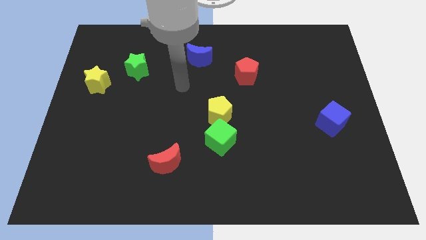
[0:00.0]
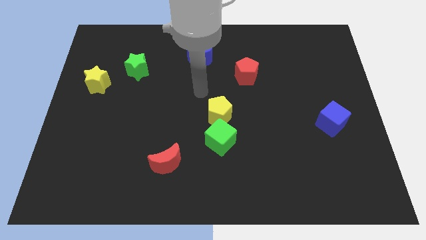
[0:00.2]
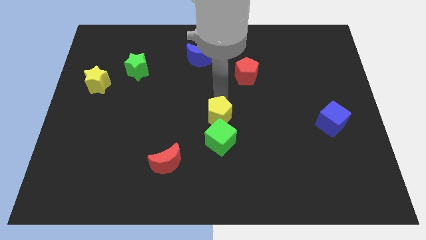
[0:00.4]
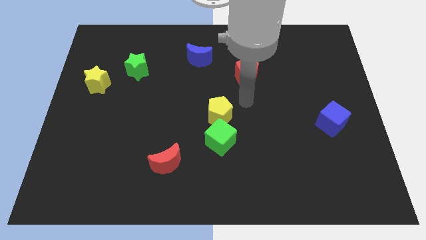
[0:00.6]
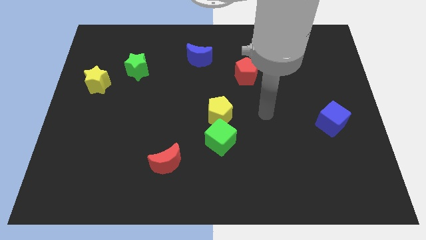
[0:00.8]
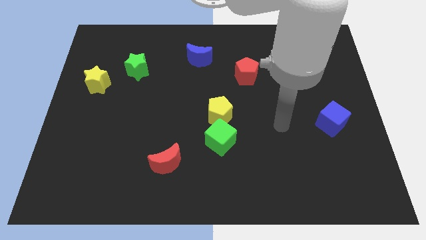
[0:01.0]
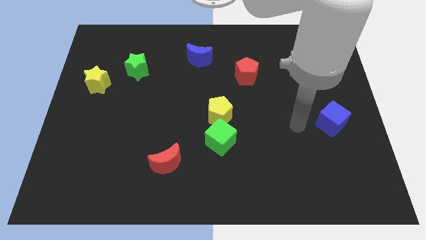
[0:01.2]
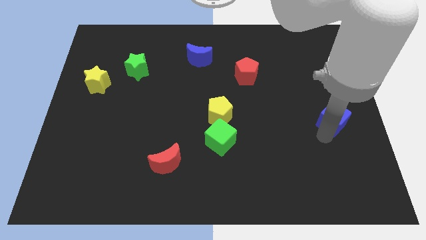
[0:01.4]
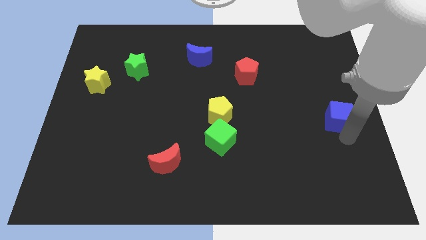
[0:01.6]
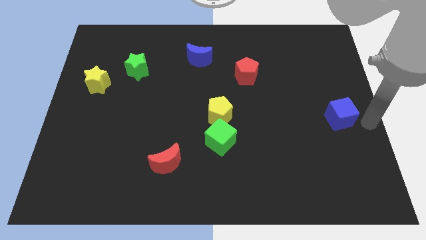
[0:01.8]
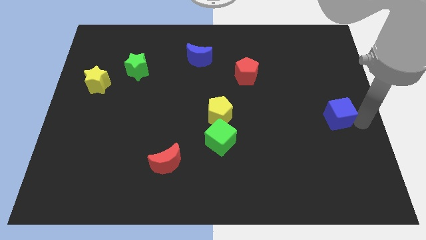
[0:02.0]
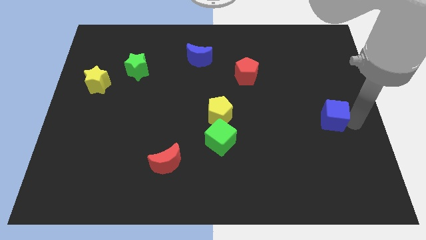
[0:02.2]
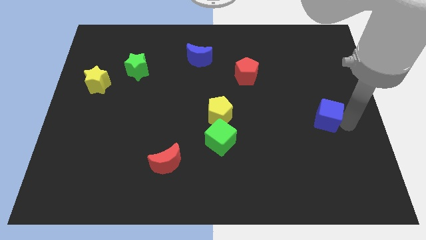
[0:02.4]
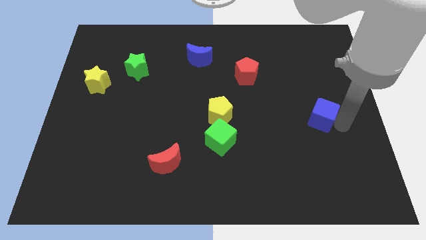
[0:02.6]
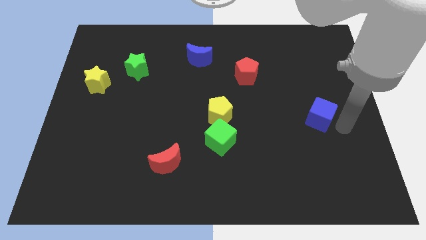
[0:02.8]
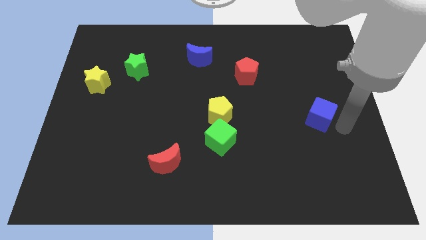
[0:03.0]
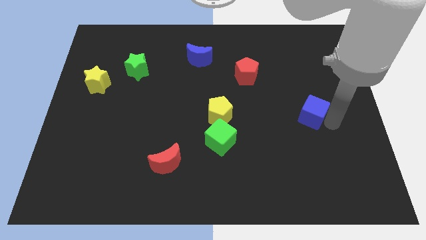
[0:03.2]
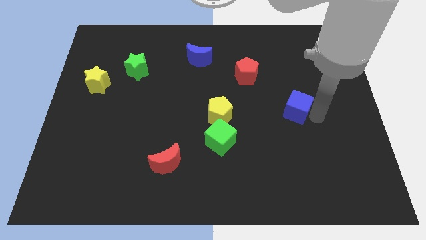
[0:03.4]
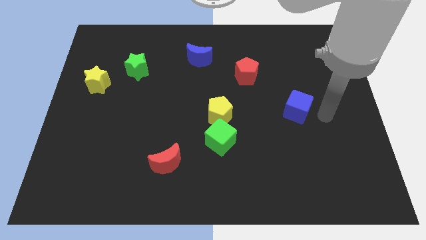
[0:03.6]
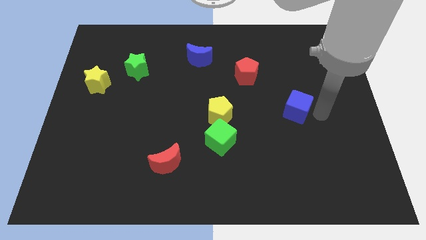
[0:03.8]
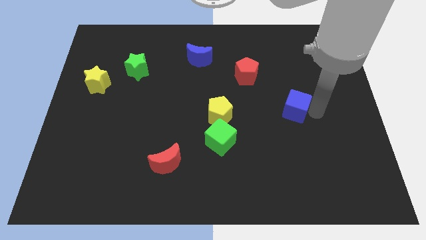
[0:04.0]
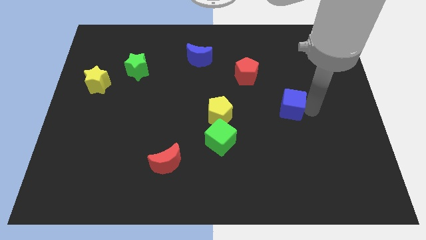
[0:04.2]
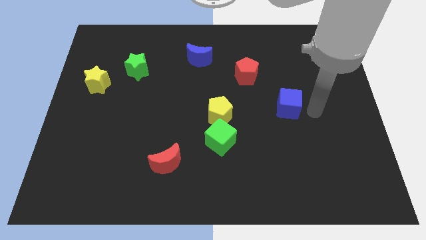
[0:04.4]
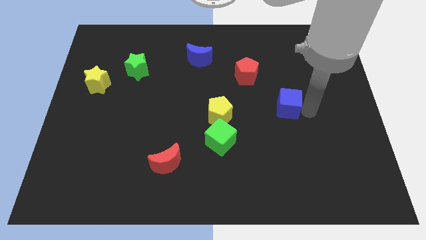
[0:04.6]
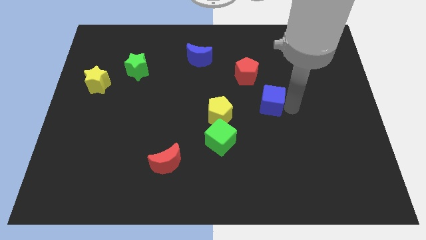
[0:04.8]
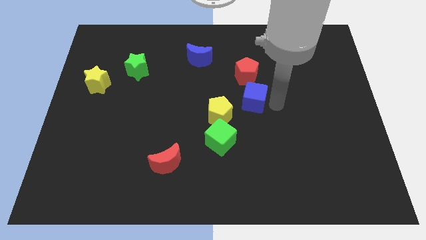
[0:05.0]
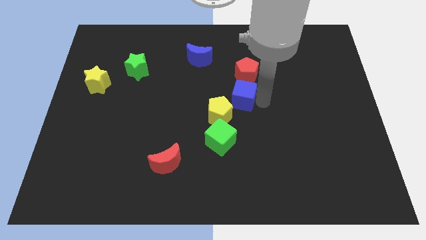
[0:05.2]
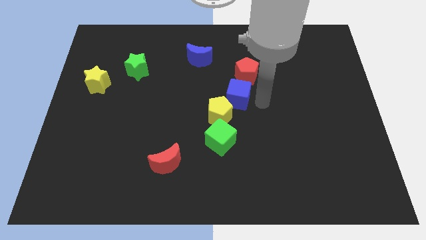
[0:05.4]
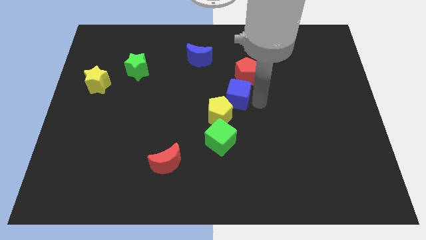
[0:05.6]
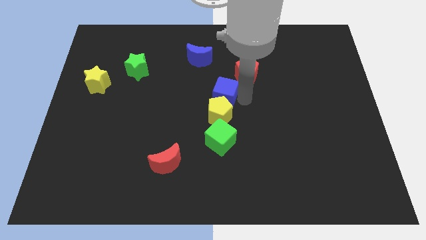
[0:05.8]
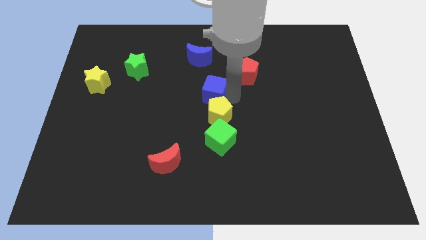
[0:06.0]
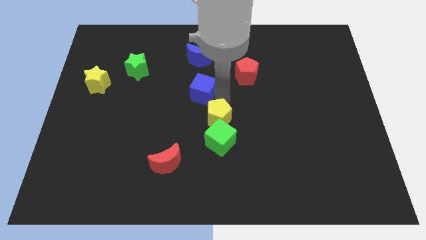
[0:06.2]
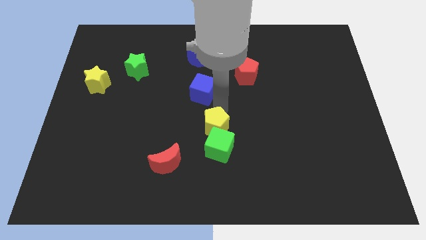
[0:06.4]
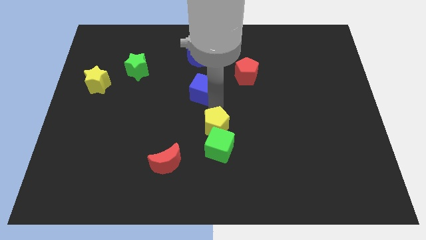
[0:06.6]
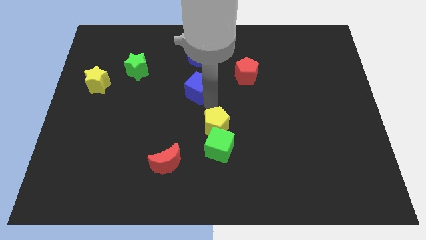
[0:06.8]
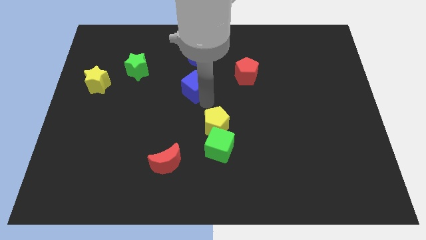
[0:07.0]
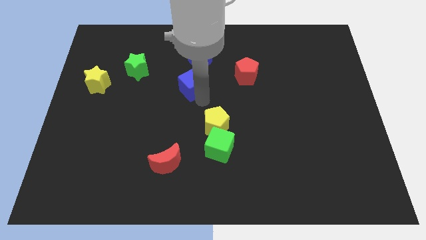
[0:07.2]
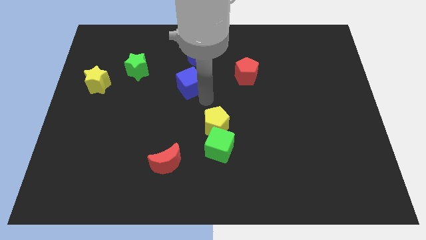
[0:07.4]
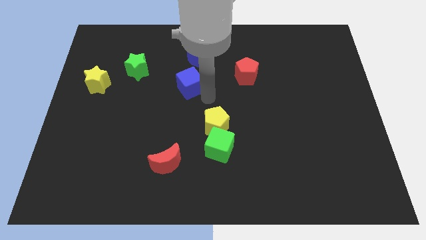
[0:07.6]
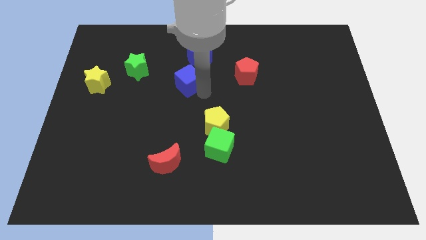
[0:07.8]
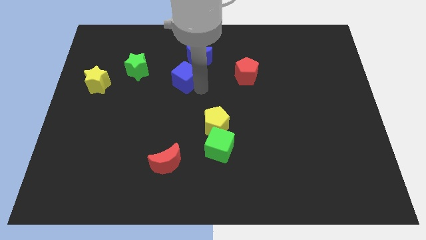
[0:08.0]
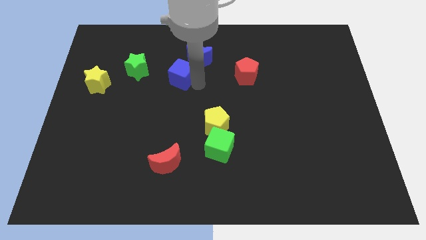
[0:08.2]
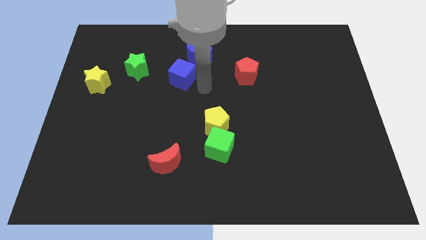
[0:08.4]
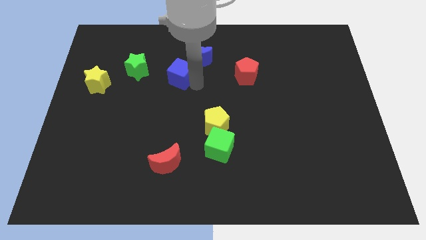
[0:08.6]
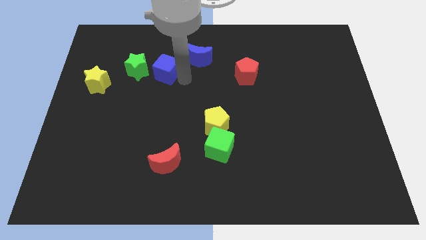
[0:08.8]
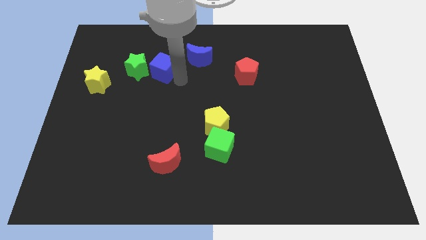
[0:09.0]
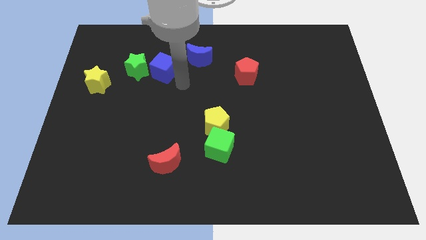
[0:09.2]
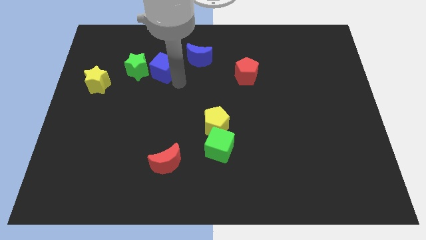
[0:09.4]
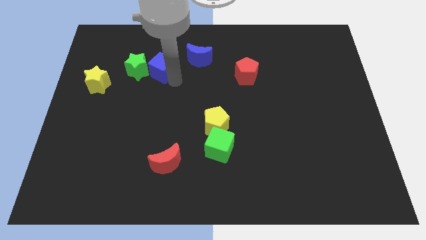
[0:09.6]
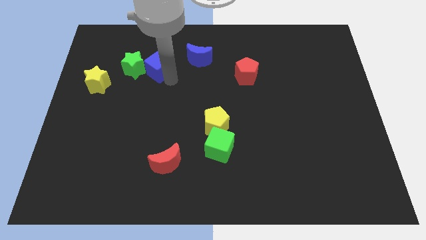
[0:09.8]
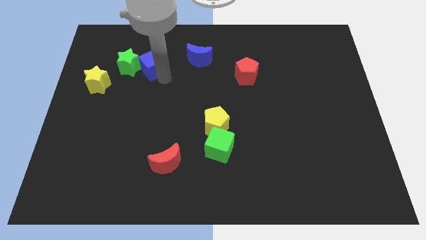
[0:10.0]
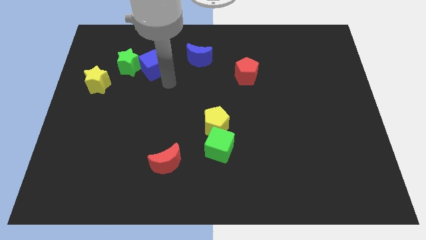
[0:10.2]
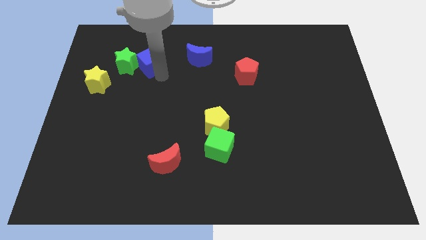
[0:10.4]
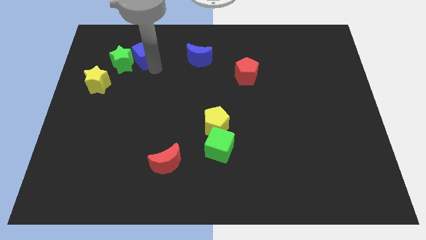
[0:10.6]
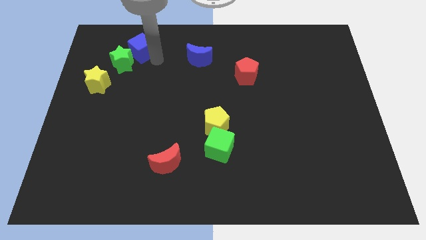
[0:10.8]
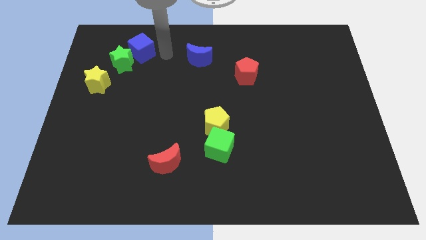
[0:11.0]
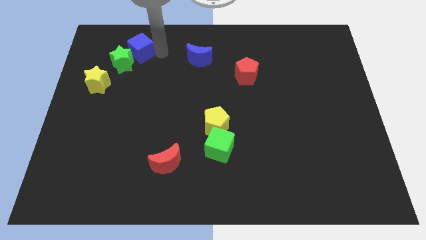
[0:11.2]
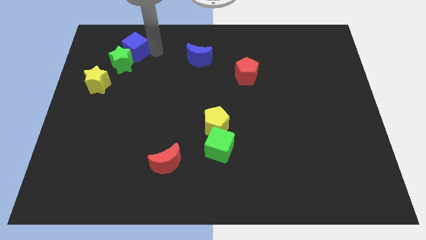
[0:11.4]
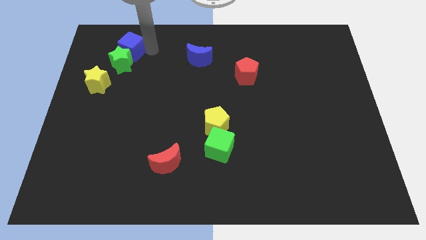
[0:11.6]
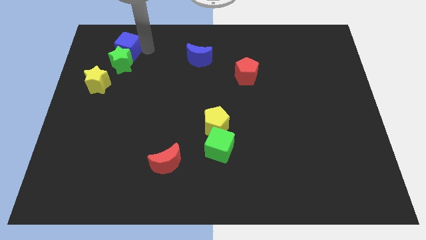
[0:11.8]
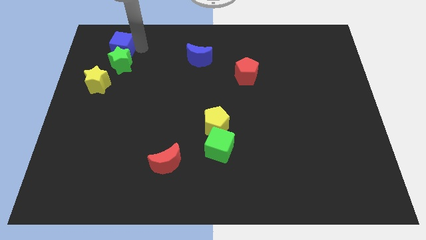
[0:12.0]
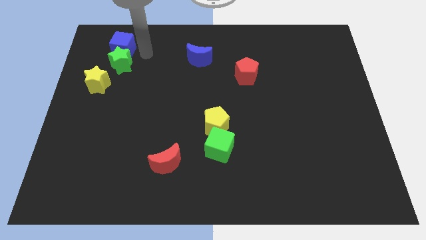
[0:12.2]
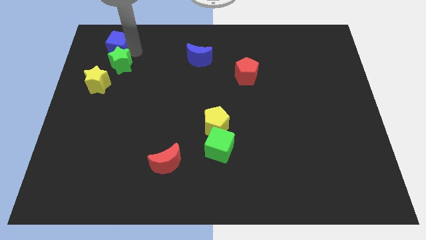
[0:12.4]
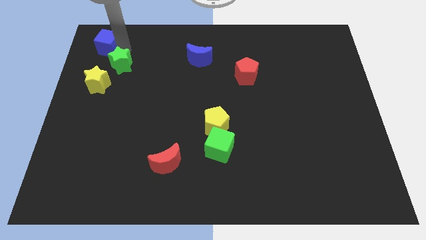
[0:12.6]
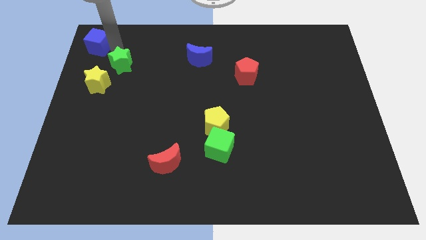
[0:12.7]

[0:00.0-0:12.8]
slide the blue cube to the top left
